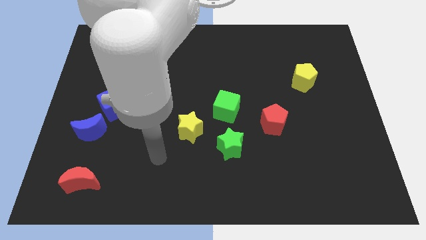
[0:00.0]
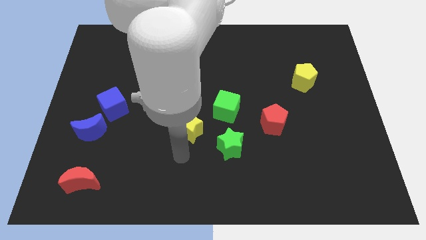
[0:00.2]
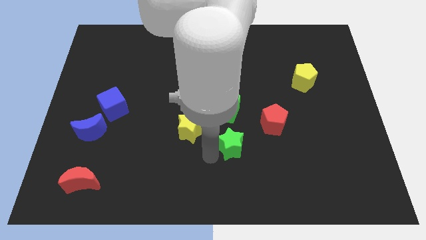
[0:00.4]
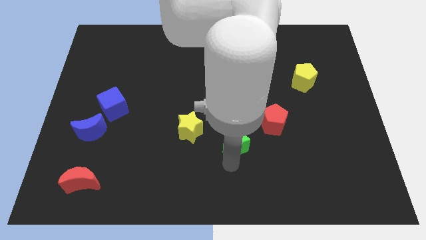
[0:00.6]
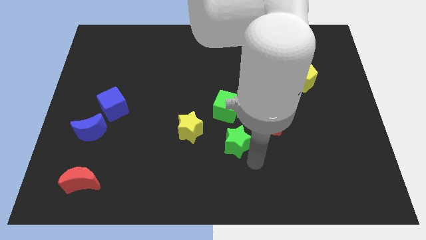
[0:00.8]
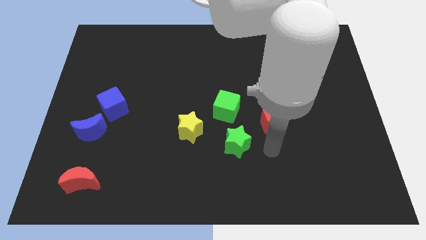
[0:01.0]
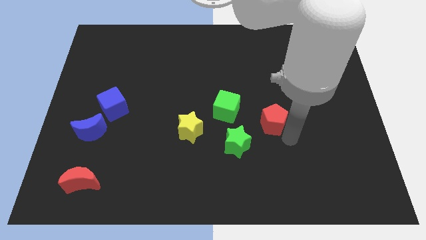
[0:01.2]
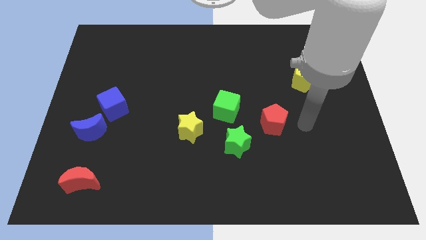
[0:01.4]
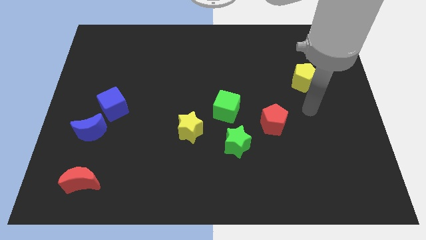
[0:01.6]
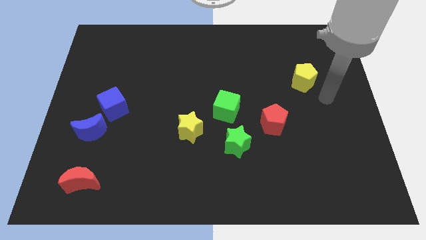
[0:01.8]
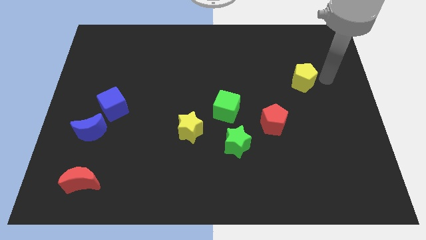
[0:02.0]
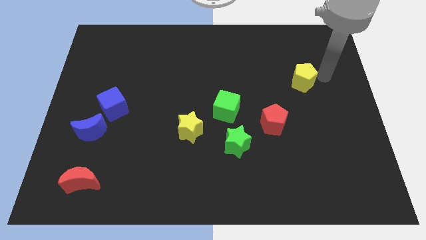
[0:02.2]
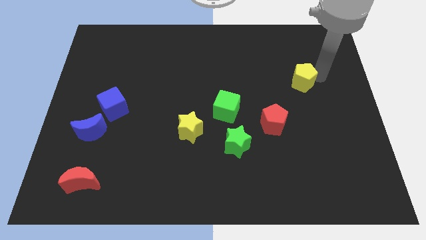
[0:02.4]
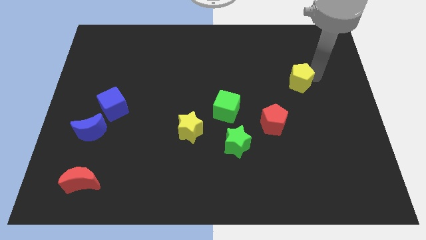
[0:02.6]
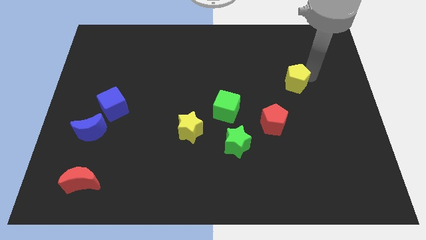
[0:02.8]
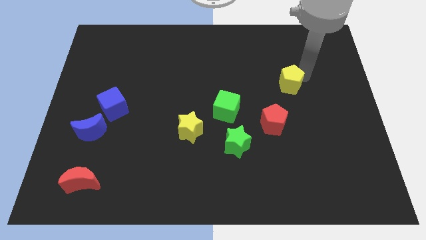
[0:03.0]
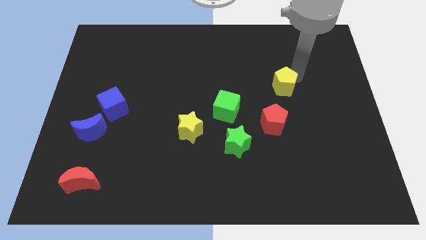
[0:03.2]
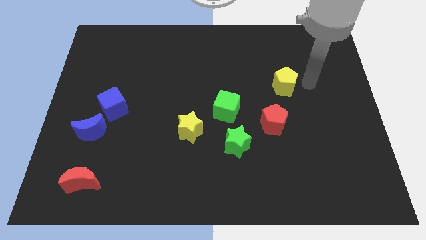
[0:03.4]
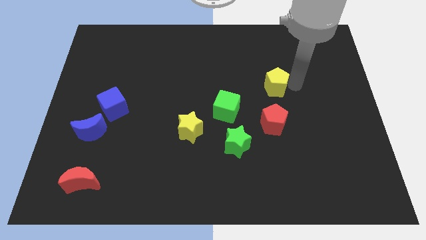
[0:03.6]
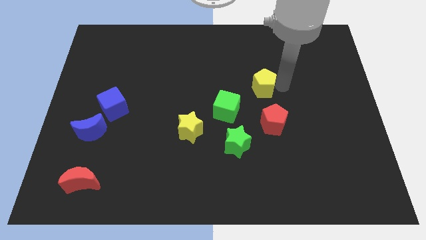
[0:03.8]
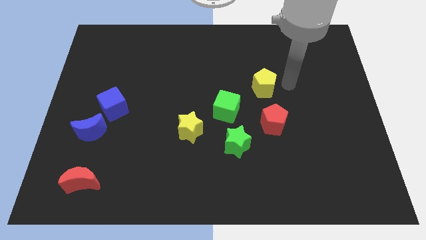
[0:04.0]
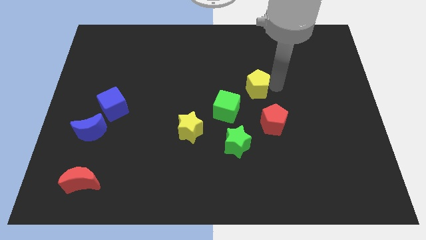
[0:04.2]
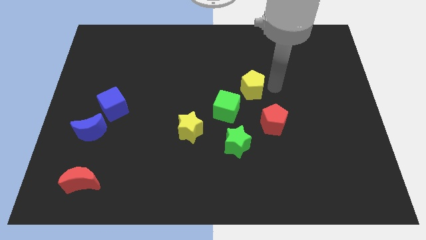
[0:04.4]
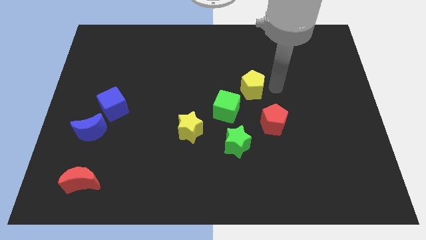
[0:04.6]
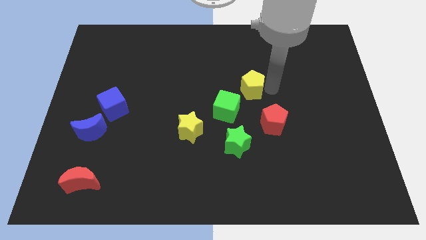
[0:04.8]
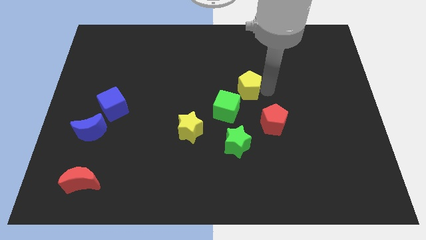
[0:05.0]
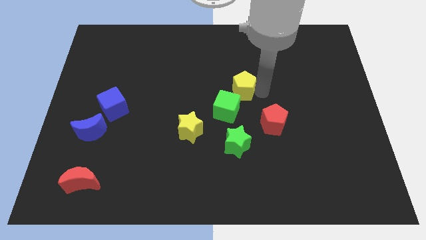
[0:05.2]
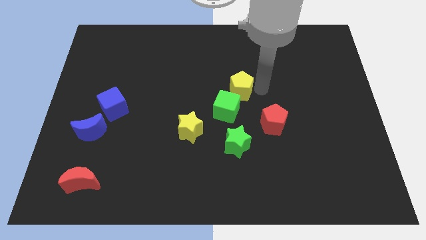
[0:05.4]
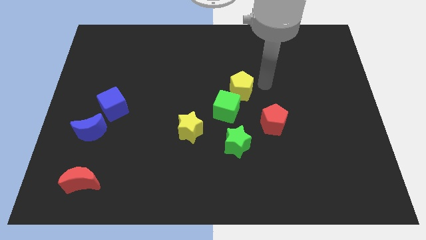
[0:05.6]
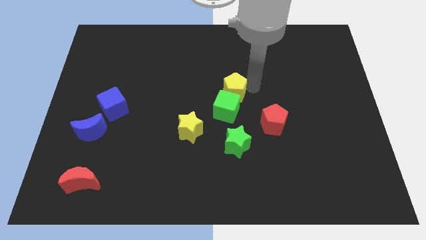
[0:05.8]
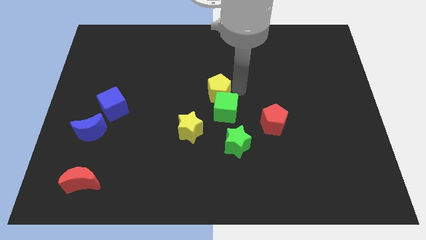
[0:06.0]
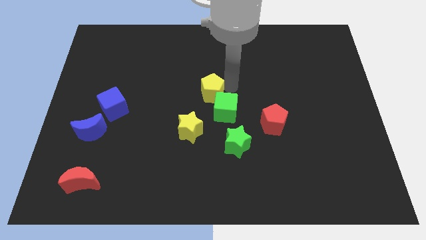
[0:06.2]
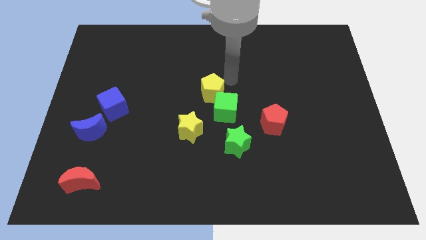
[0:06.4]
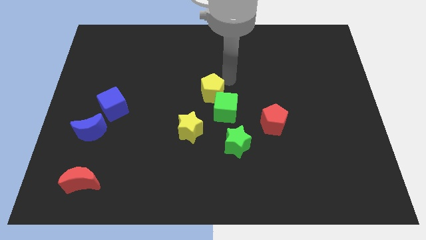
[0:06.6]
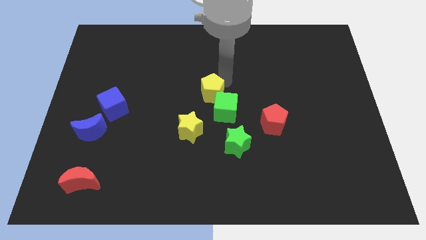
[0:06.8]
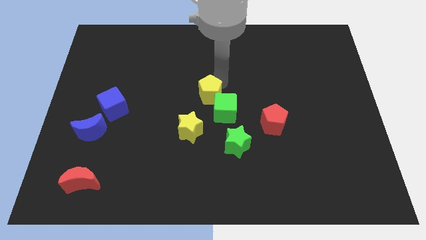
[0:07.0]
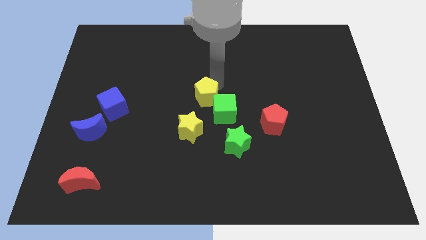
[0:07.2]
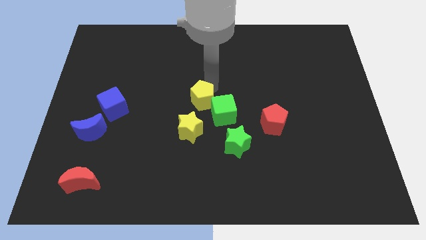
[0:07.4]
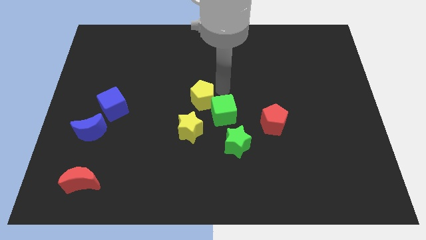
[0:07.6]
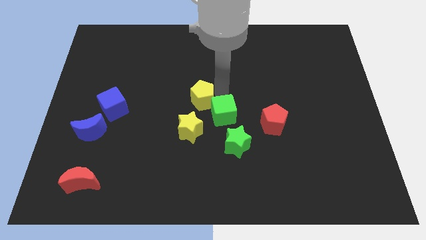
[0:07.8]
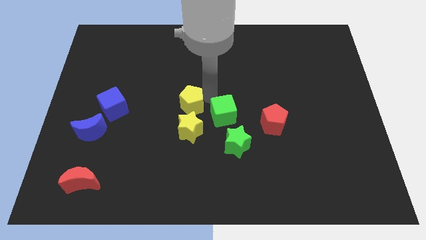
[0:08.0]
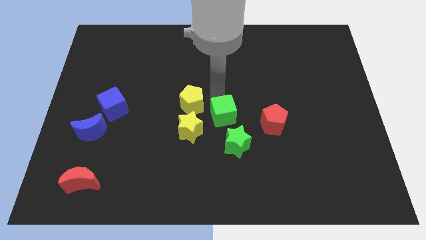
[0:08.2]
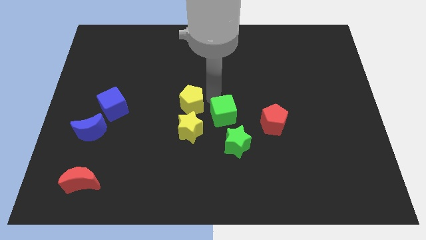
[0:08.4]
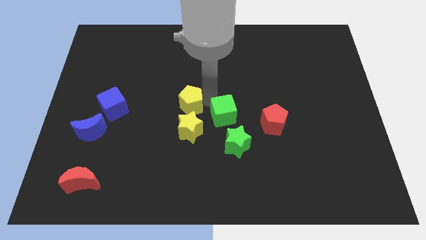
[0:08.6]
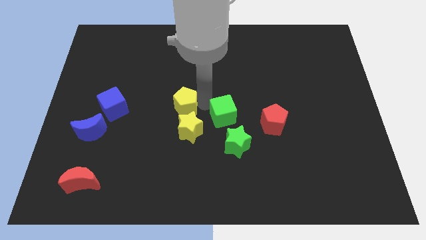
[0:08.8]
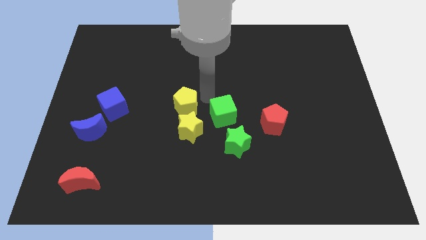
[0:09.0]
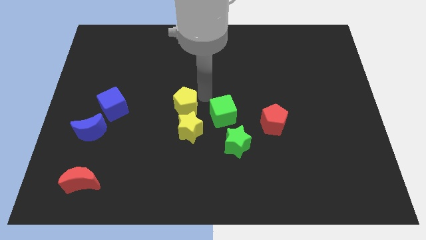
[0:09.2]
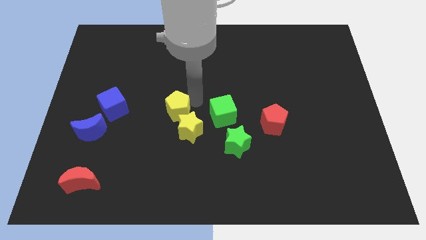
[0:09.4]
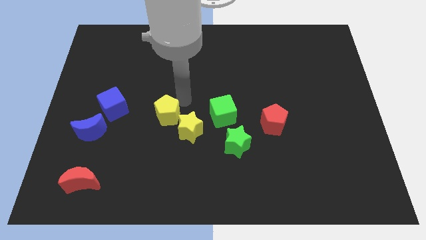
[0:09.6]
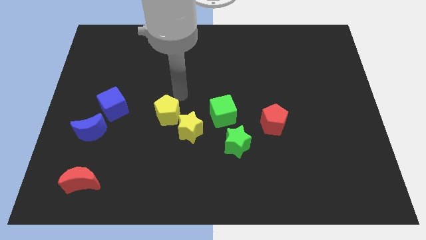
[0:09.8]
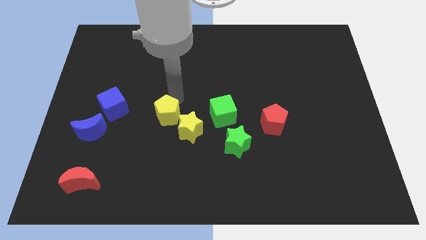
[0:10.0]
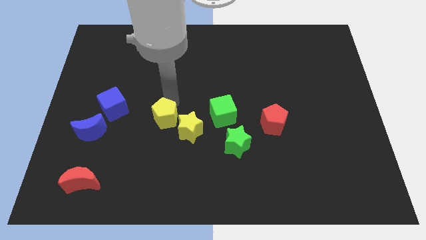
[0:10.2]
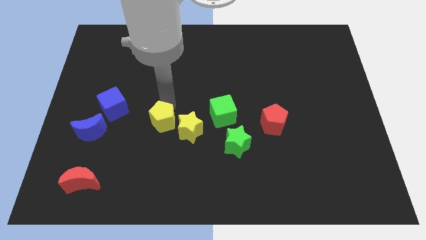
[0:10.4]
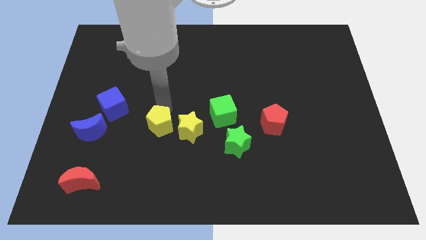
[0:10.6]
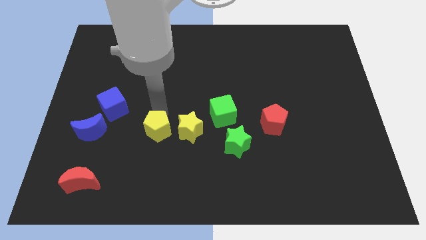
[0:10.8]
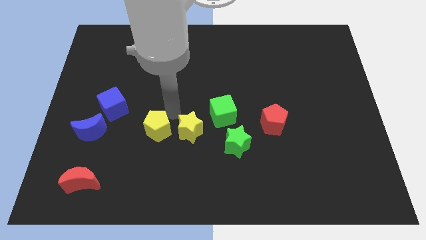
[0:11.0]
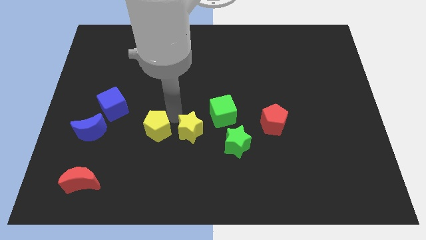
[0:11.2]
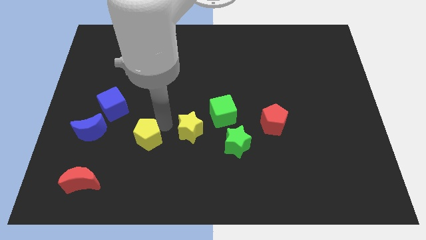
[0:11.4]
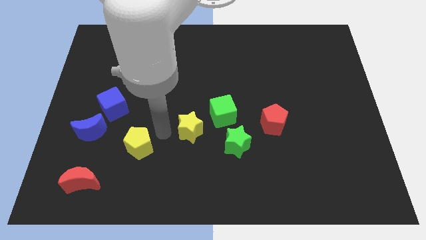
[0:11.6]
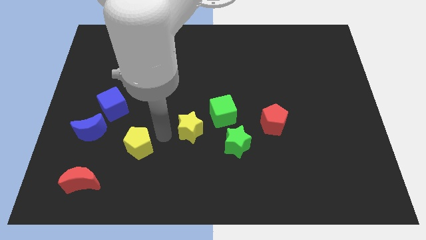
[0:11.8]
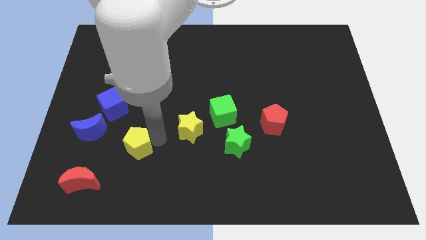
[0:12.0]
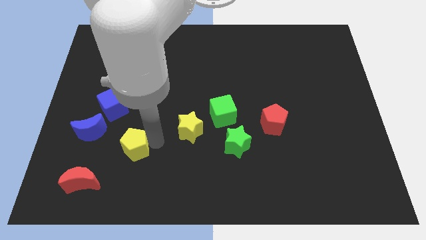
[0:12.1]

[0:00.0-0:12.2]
put the yellow pentagon diagonally up and to the right of the red moon
